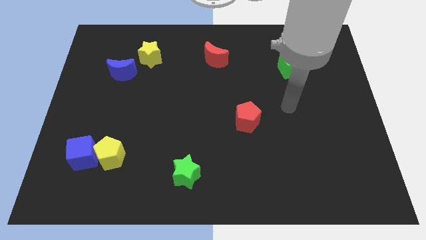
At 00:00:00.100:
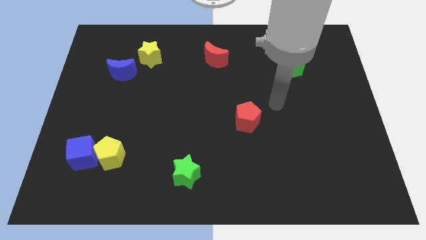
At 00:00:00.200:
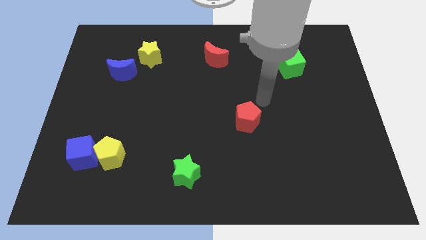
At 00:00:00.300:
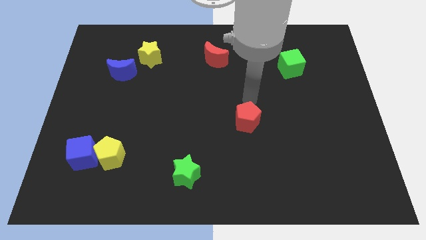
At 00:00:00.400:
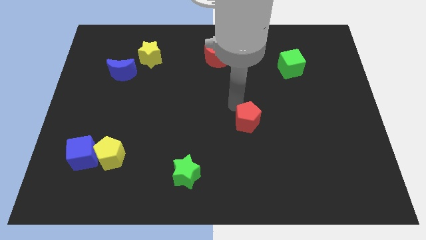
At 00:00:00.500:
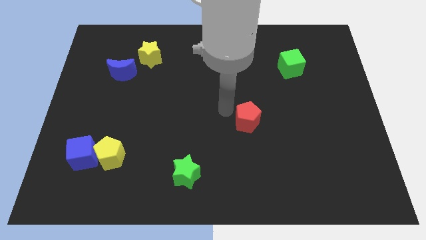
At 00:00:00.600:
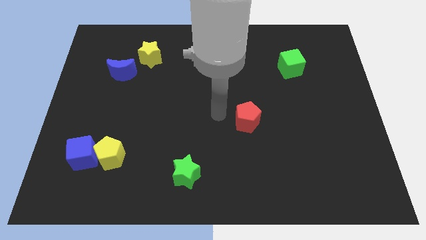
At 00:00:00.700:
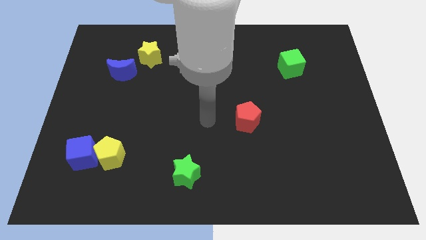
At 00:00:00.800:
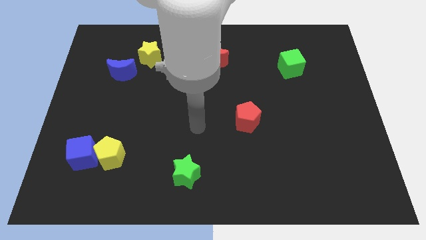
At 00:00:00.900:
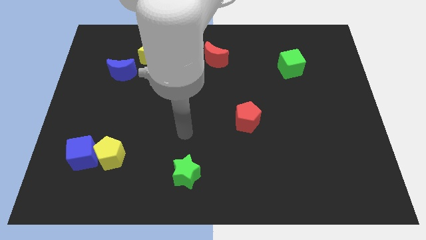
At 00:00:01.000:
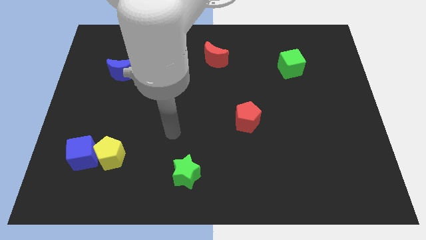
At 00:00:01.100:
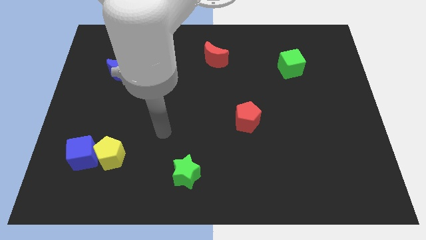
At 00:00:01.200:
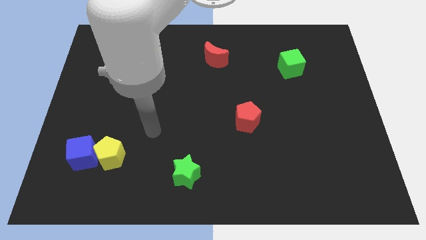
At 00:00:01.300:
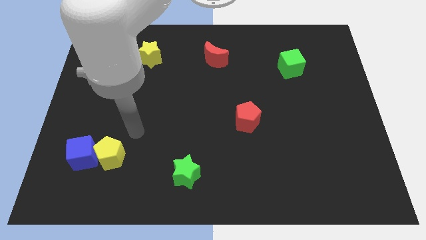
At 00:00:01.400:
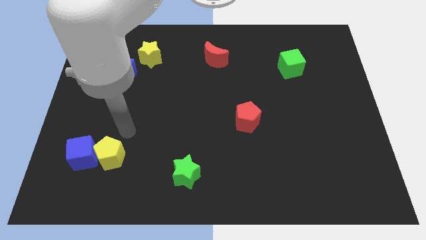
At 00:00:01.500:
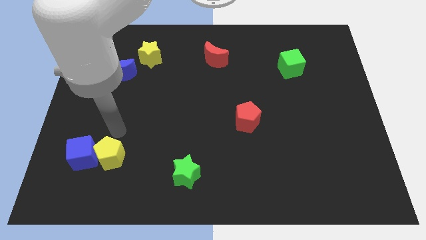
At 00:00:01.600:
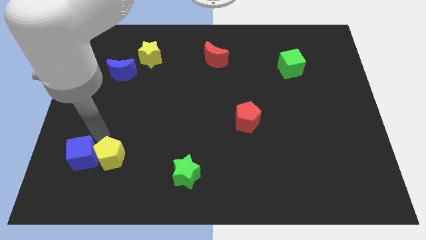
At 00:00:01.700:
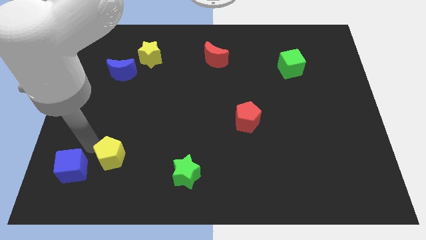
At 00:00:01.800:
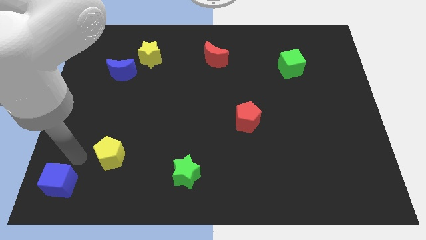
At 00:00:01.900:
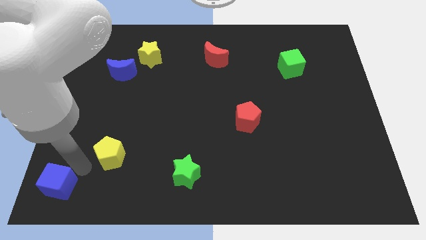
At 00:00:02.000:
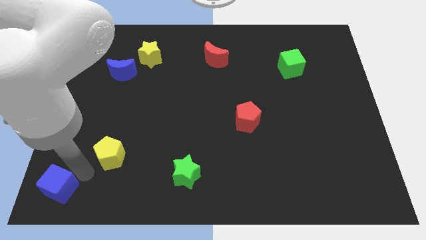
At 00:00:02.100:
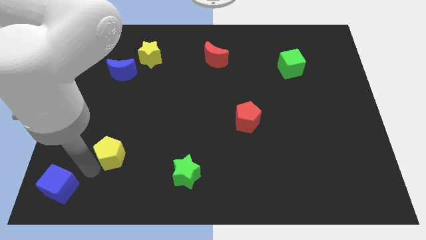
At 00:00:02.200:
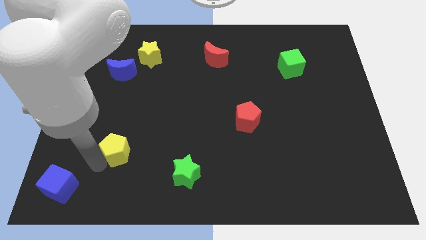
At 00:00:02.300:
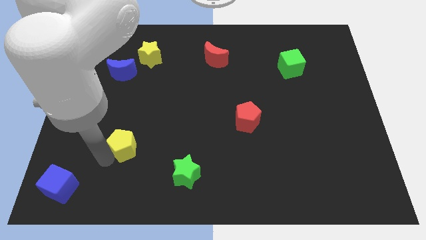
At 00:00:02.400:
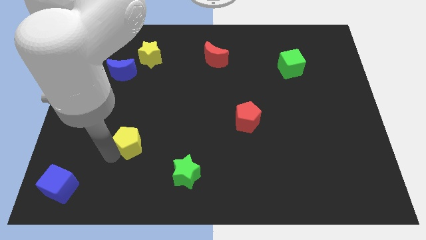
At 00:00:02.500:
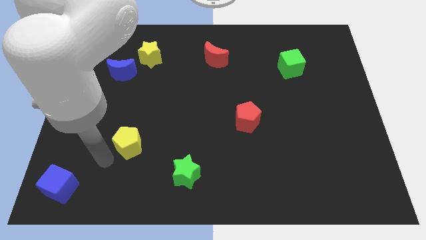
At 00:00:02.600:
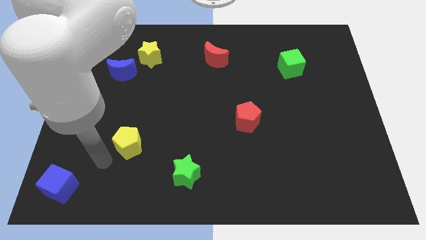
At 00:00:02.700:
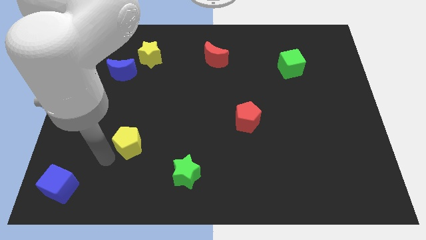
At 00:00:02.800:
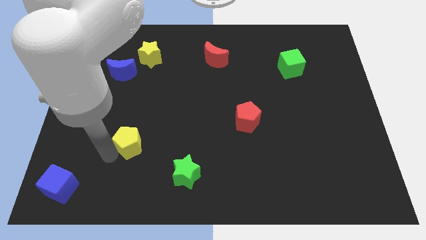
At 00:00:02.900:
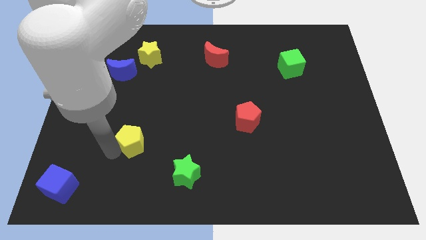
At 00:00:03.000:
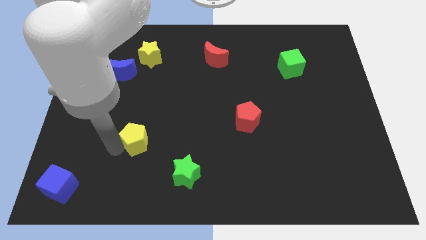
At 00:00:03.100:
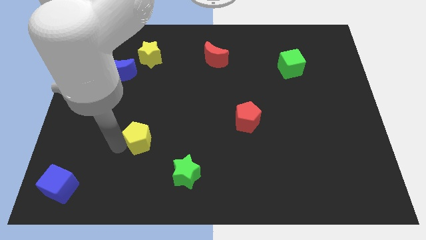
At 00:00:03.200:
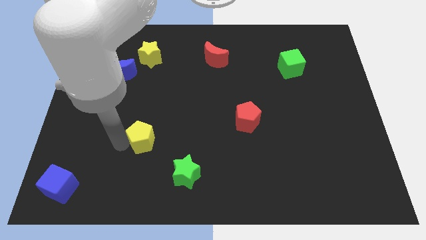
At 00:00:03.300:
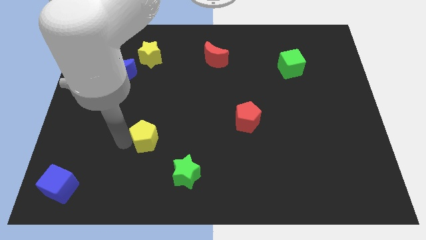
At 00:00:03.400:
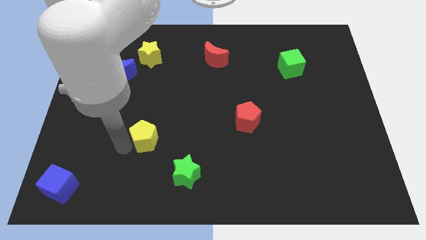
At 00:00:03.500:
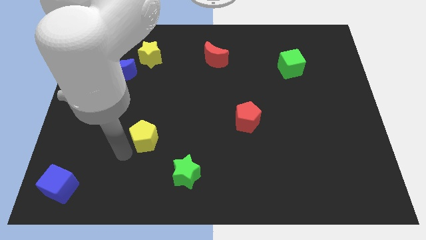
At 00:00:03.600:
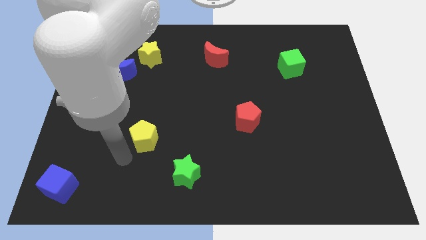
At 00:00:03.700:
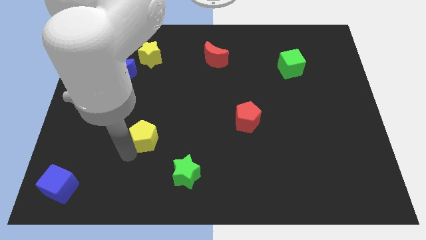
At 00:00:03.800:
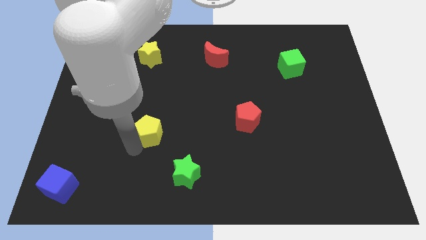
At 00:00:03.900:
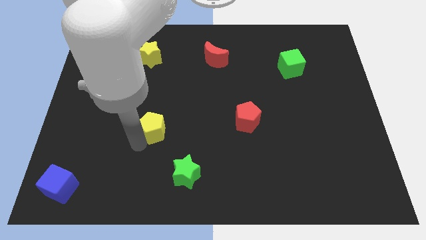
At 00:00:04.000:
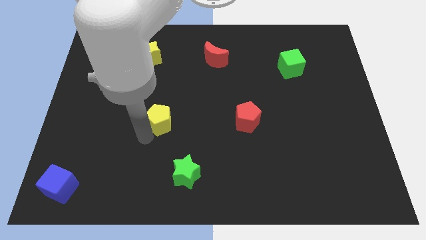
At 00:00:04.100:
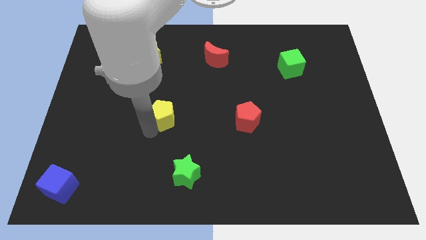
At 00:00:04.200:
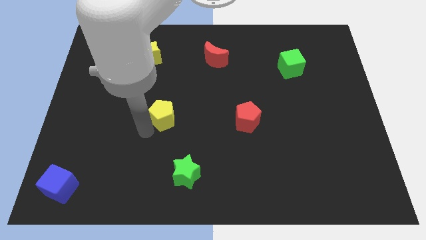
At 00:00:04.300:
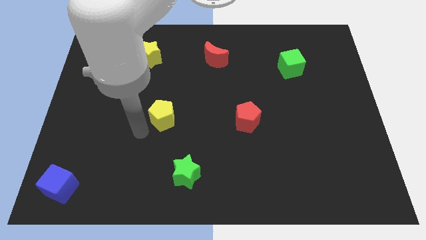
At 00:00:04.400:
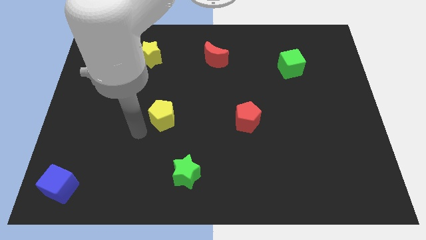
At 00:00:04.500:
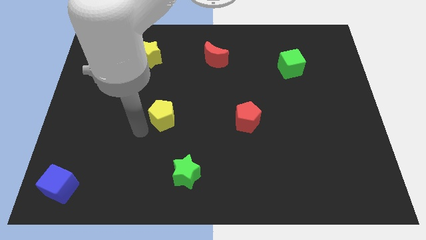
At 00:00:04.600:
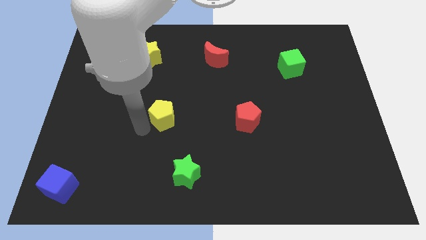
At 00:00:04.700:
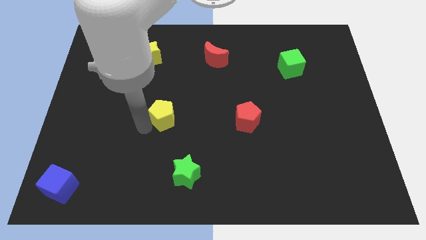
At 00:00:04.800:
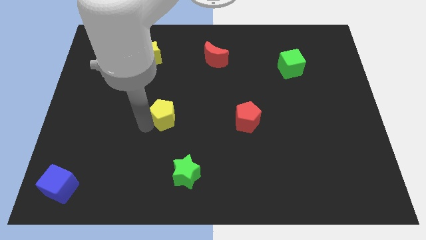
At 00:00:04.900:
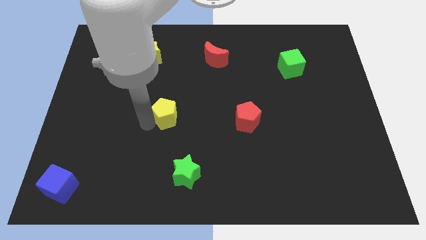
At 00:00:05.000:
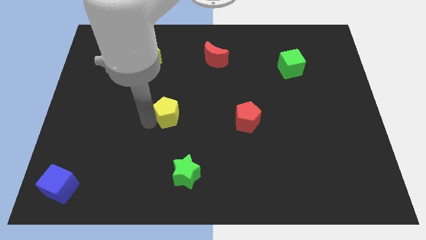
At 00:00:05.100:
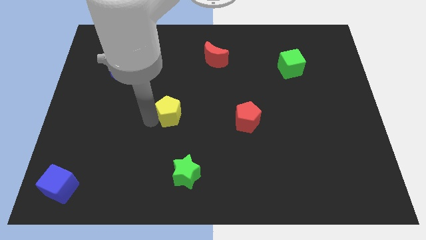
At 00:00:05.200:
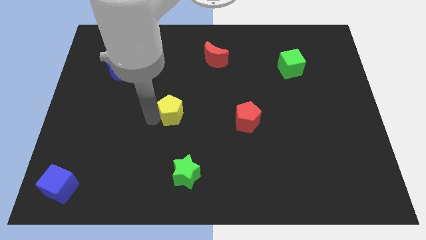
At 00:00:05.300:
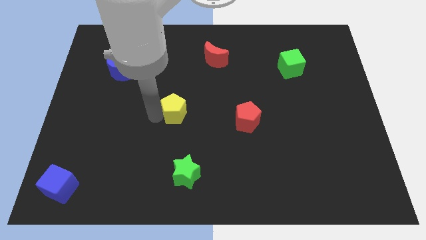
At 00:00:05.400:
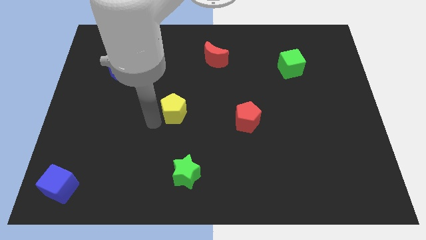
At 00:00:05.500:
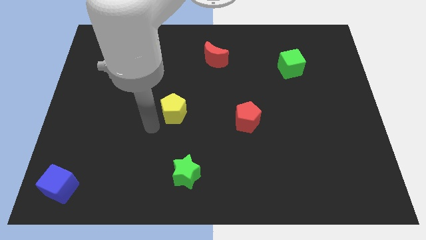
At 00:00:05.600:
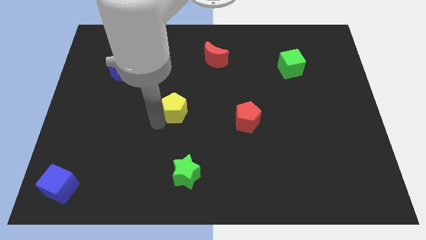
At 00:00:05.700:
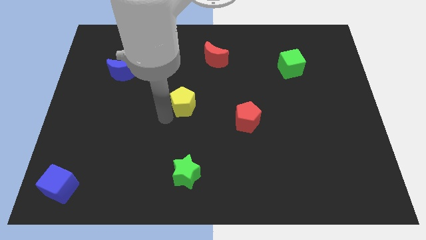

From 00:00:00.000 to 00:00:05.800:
move the yellow pentagon upwards and then right

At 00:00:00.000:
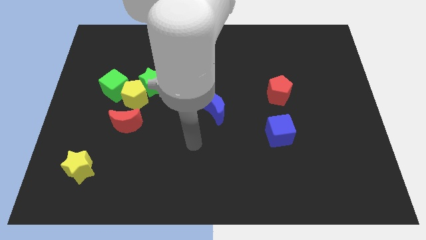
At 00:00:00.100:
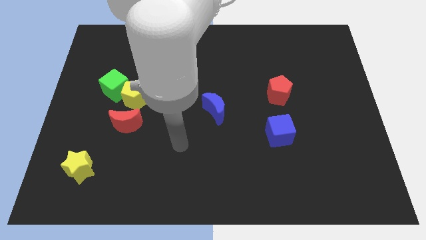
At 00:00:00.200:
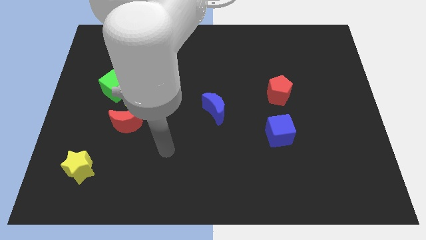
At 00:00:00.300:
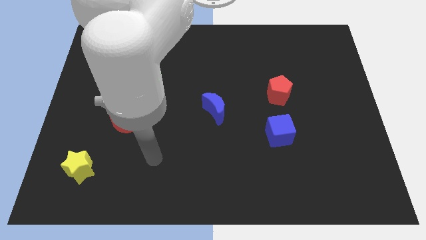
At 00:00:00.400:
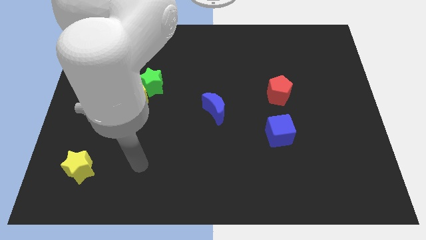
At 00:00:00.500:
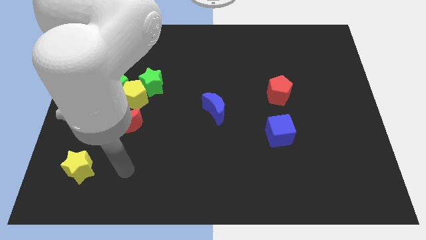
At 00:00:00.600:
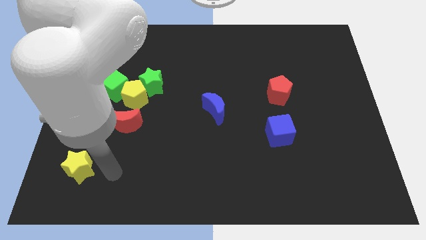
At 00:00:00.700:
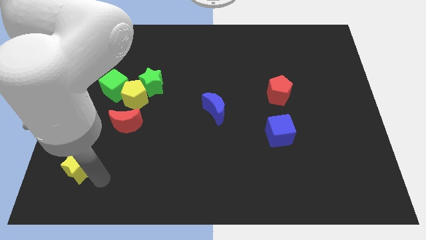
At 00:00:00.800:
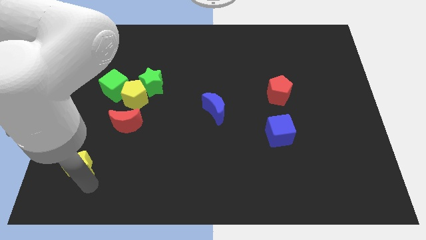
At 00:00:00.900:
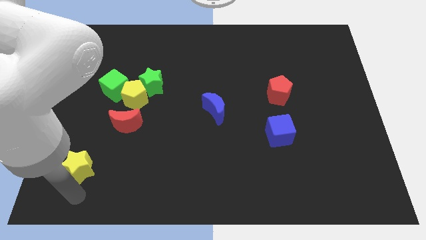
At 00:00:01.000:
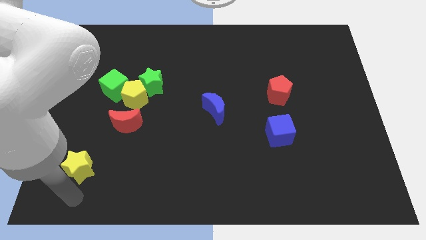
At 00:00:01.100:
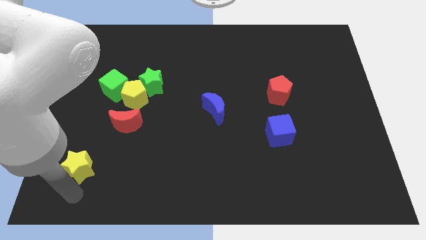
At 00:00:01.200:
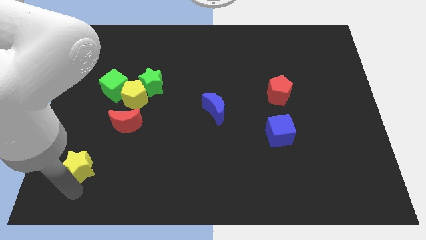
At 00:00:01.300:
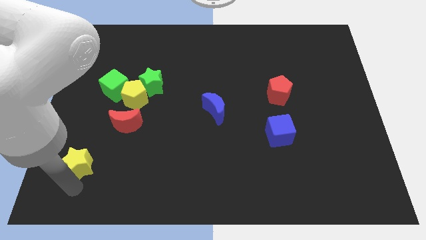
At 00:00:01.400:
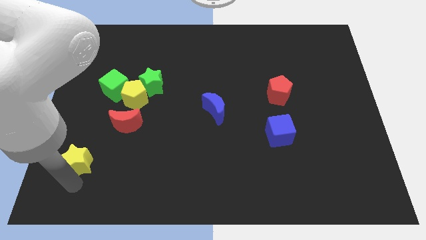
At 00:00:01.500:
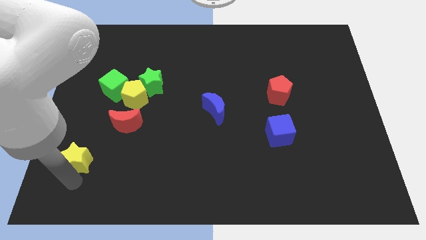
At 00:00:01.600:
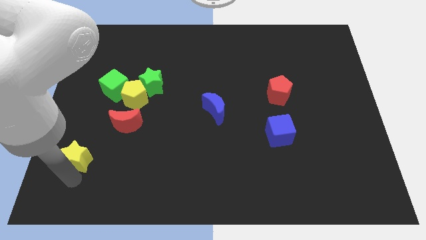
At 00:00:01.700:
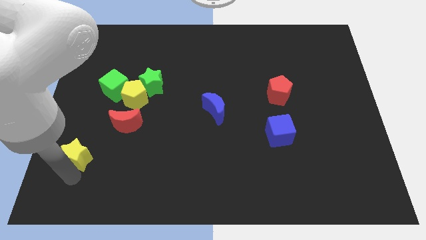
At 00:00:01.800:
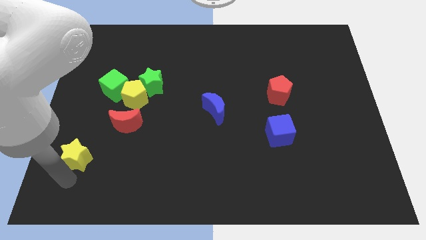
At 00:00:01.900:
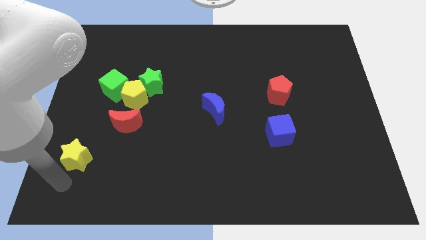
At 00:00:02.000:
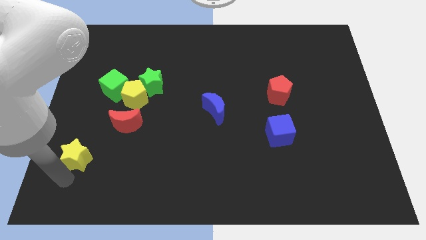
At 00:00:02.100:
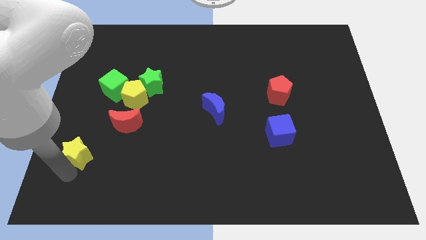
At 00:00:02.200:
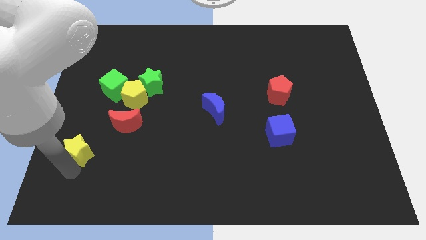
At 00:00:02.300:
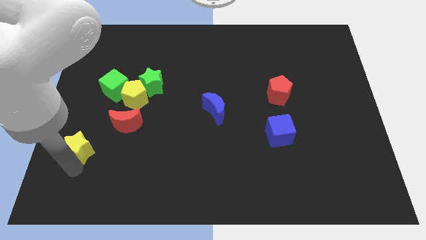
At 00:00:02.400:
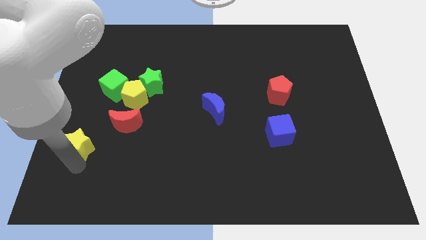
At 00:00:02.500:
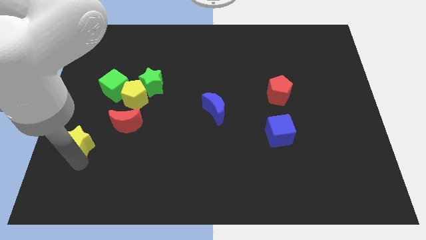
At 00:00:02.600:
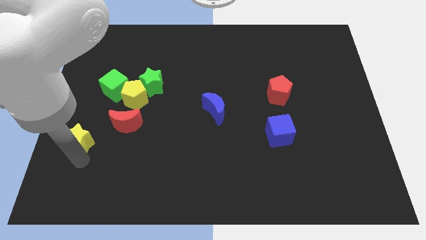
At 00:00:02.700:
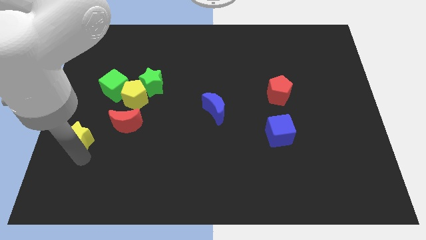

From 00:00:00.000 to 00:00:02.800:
slightly slide the yellow star upwards
